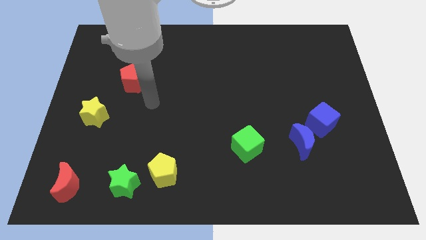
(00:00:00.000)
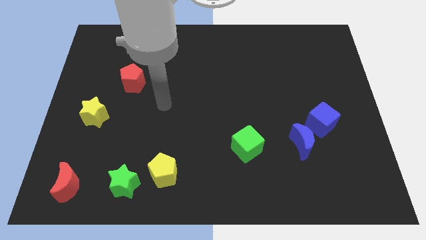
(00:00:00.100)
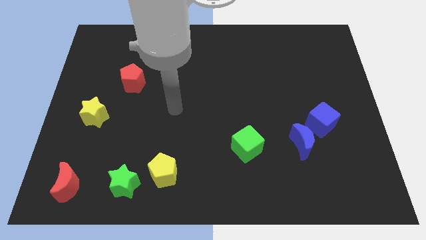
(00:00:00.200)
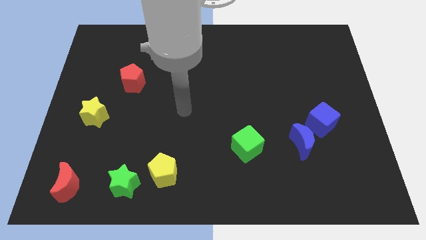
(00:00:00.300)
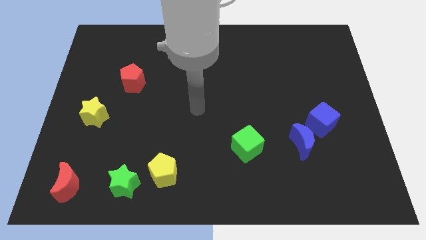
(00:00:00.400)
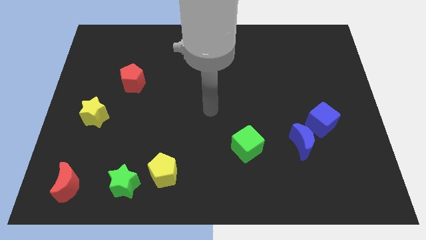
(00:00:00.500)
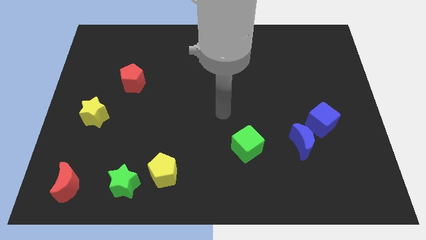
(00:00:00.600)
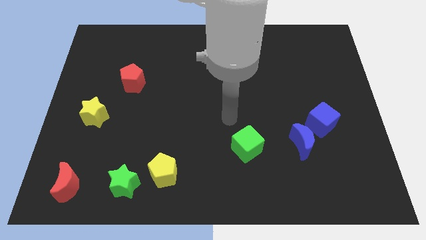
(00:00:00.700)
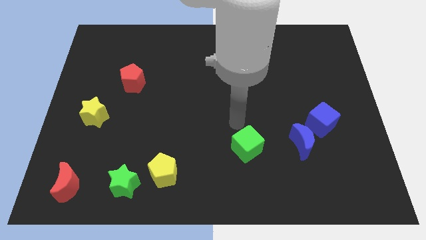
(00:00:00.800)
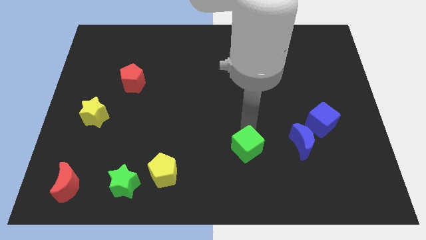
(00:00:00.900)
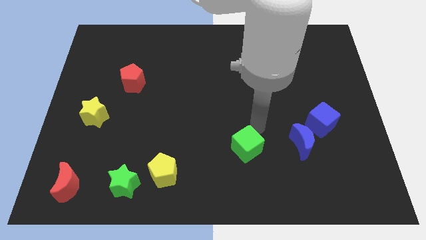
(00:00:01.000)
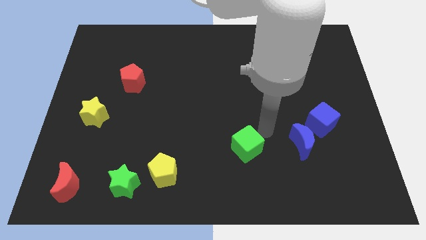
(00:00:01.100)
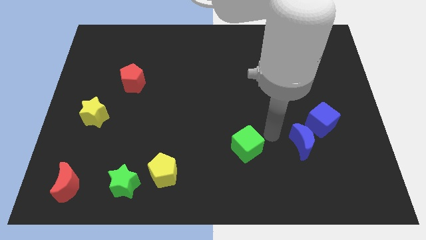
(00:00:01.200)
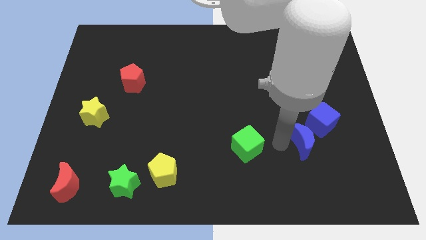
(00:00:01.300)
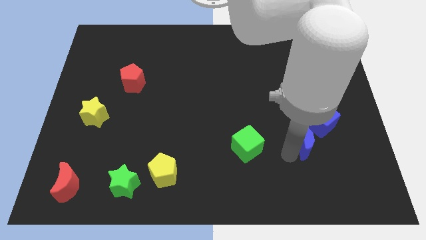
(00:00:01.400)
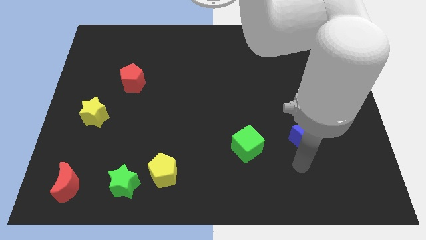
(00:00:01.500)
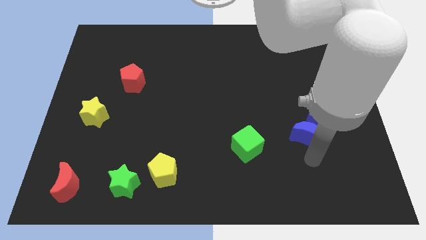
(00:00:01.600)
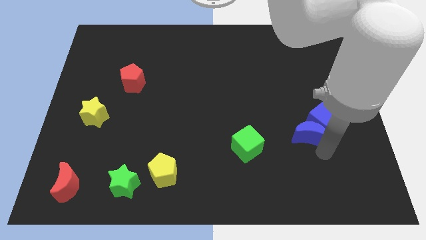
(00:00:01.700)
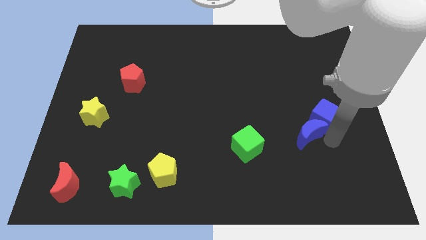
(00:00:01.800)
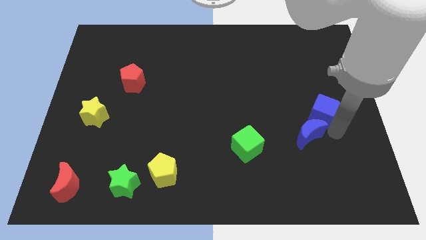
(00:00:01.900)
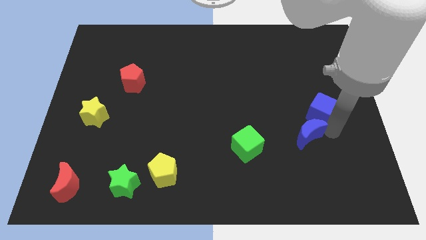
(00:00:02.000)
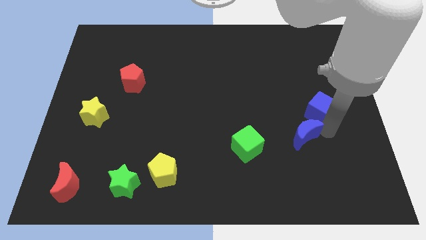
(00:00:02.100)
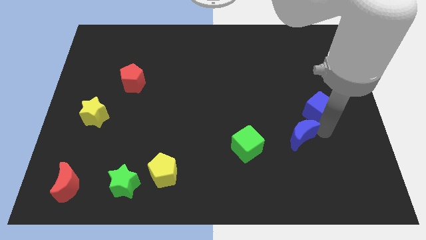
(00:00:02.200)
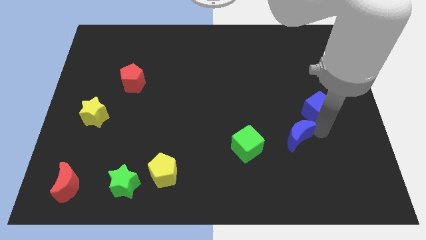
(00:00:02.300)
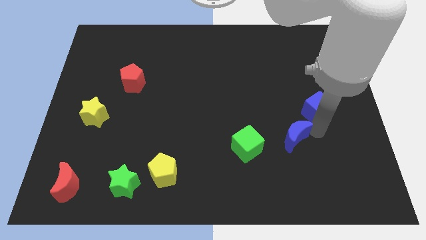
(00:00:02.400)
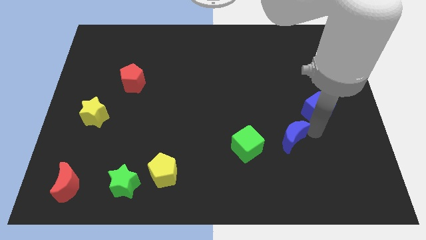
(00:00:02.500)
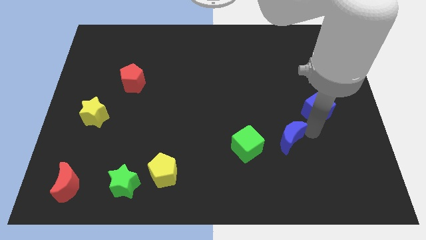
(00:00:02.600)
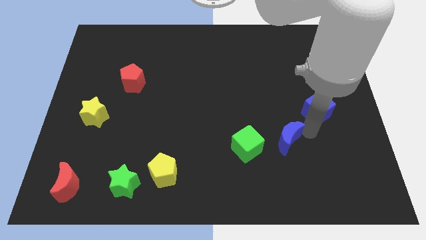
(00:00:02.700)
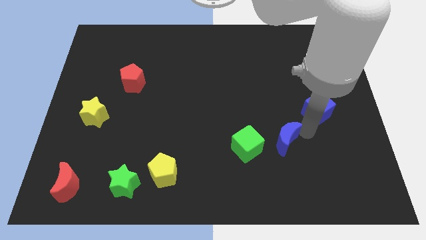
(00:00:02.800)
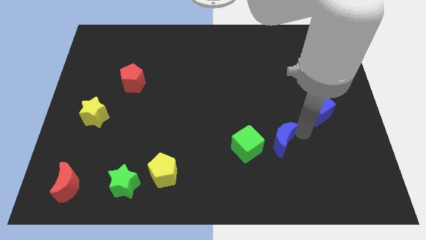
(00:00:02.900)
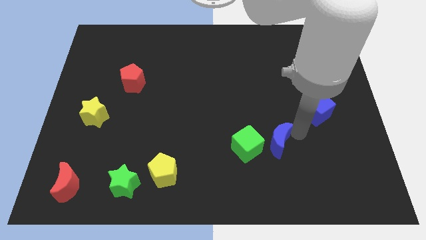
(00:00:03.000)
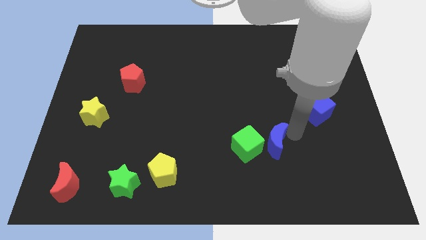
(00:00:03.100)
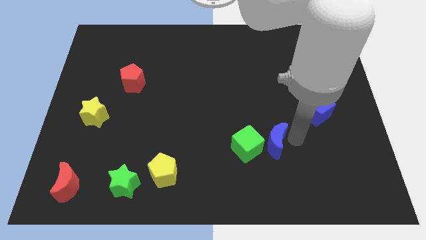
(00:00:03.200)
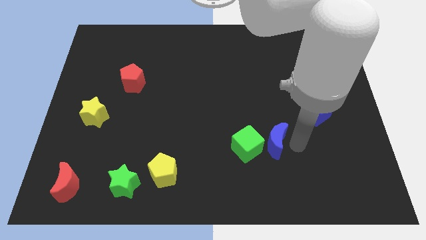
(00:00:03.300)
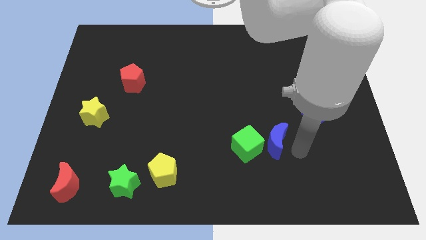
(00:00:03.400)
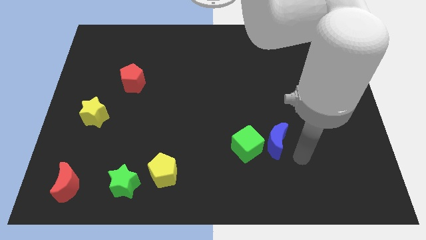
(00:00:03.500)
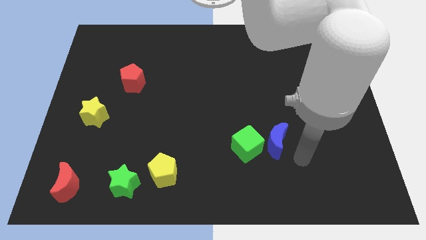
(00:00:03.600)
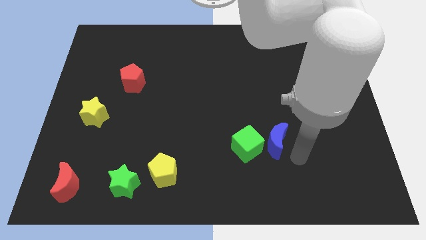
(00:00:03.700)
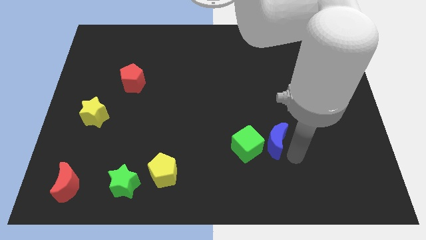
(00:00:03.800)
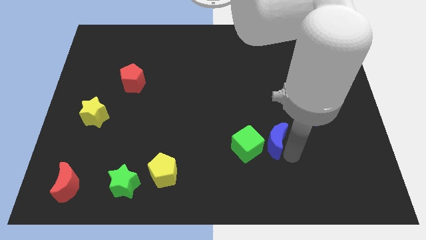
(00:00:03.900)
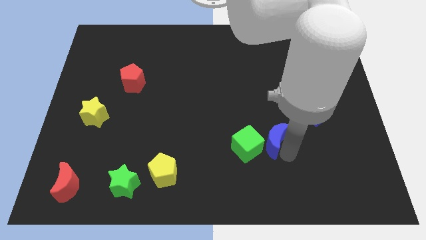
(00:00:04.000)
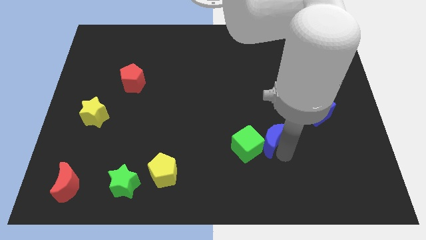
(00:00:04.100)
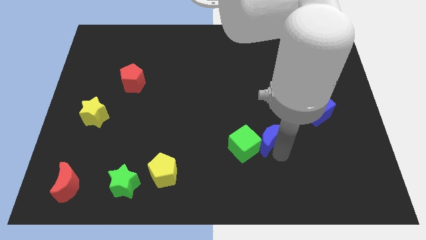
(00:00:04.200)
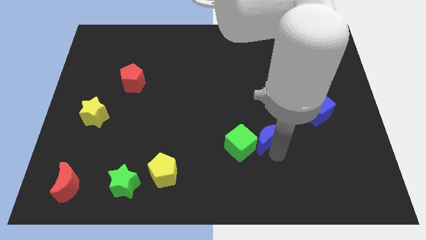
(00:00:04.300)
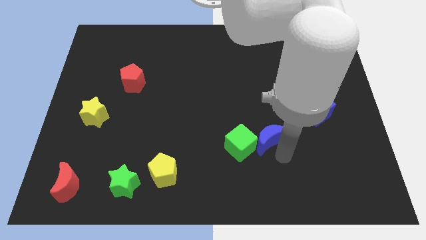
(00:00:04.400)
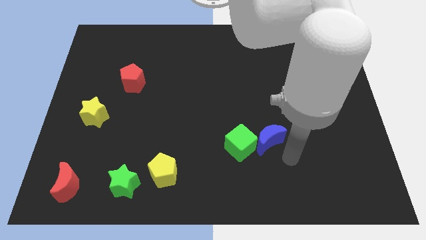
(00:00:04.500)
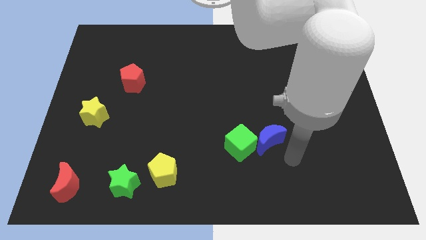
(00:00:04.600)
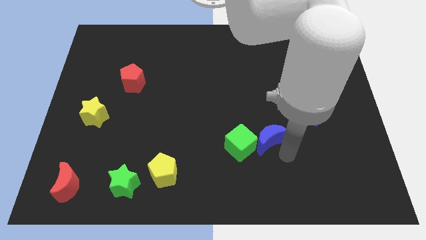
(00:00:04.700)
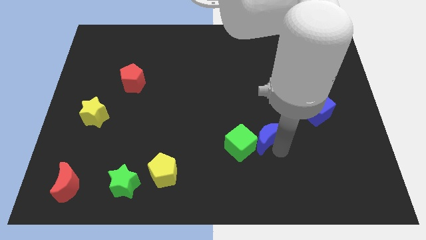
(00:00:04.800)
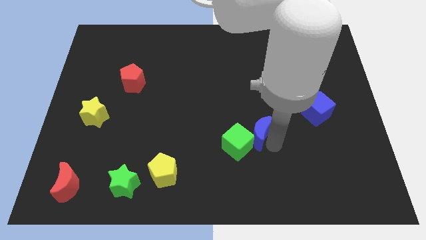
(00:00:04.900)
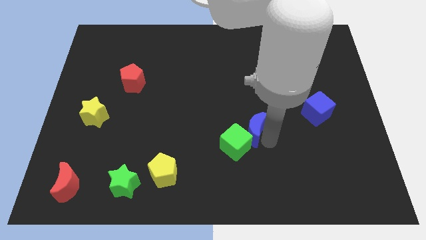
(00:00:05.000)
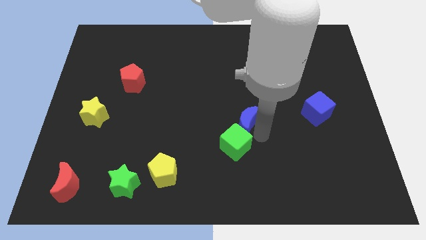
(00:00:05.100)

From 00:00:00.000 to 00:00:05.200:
move the blue moon to the middle

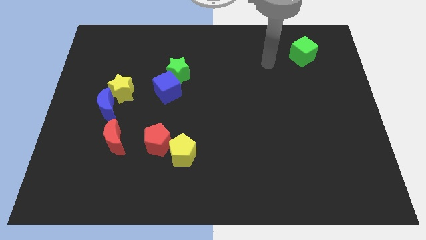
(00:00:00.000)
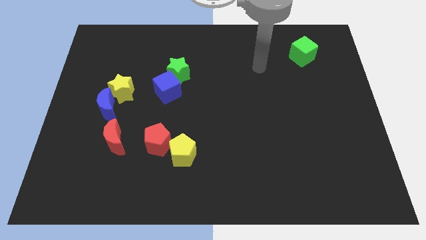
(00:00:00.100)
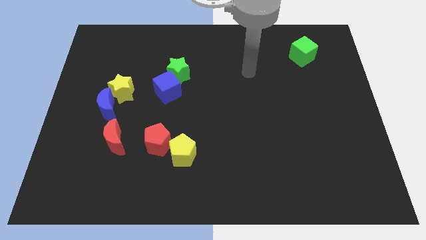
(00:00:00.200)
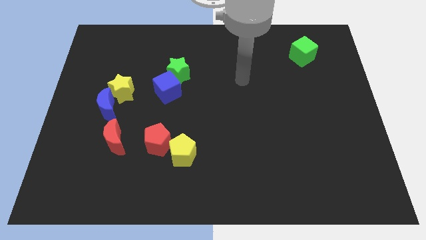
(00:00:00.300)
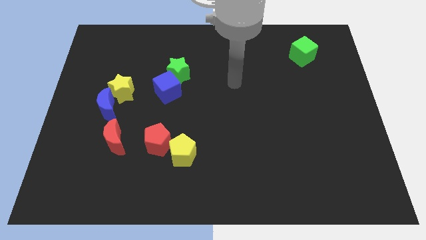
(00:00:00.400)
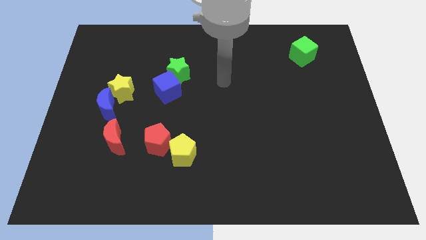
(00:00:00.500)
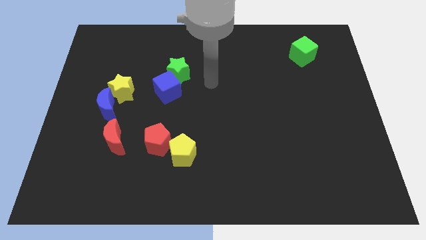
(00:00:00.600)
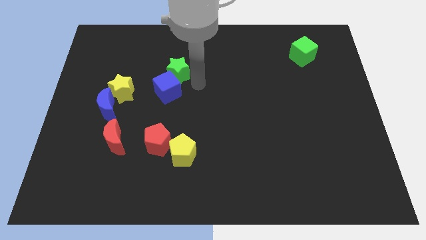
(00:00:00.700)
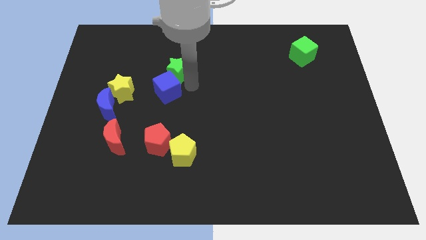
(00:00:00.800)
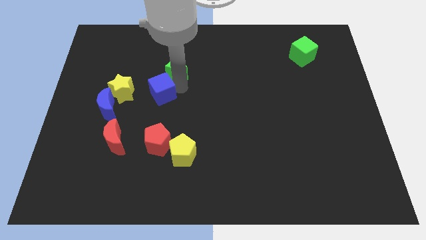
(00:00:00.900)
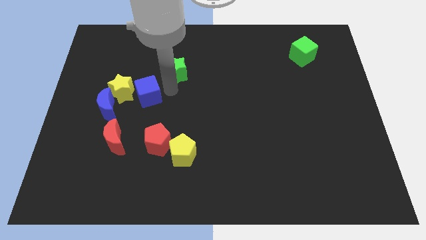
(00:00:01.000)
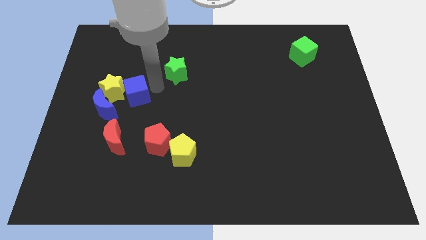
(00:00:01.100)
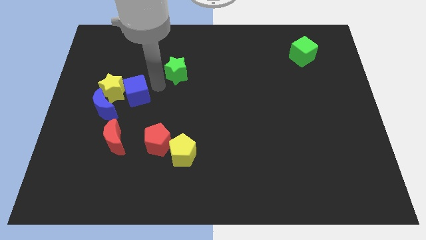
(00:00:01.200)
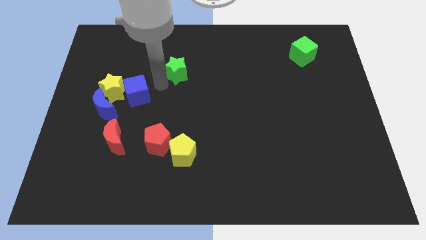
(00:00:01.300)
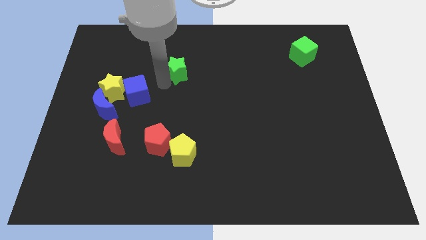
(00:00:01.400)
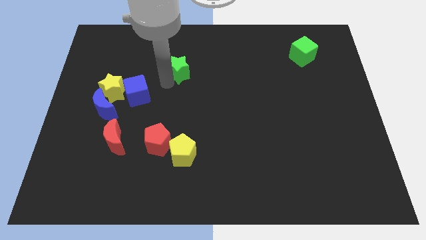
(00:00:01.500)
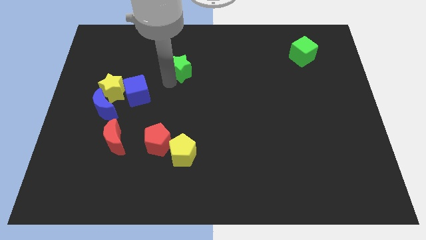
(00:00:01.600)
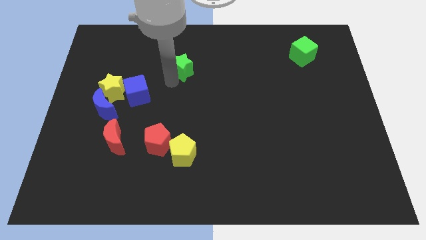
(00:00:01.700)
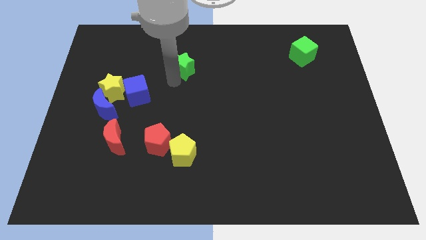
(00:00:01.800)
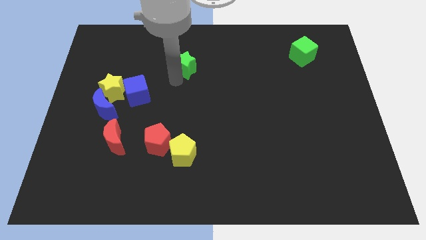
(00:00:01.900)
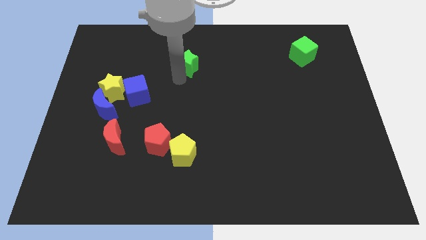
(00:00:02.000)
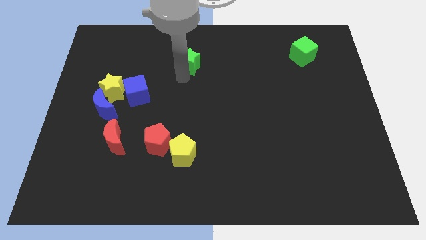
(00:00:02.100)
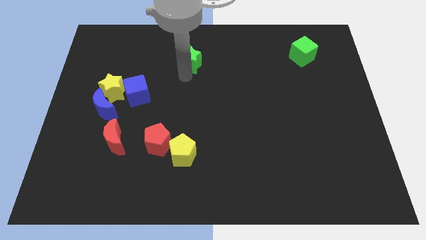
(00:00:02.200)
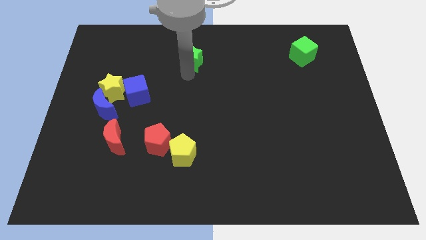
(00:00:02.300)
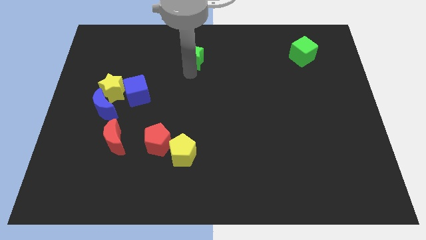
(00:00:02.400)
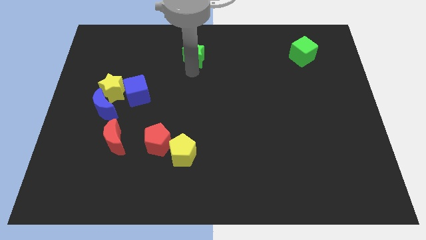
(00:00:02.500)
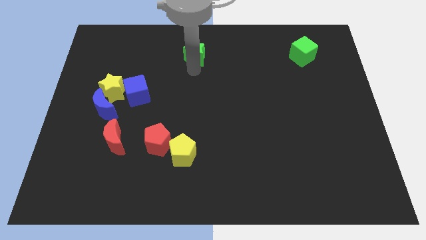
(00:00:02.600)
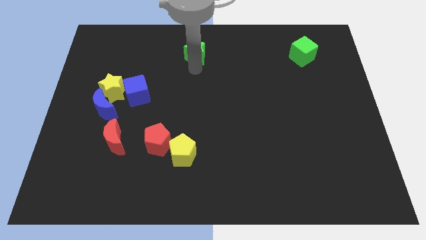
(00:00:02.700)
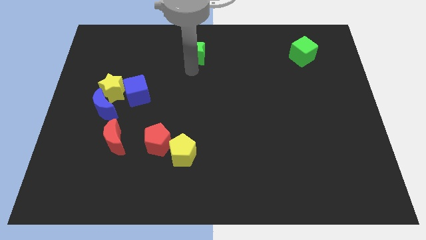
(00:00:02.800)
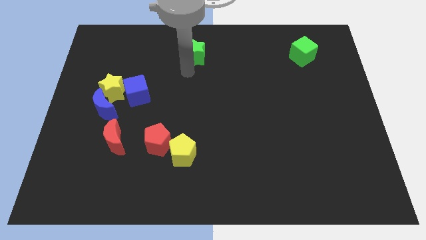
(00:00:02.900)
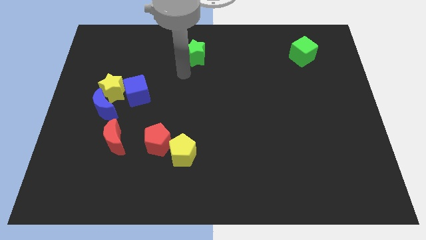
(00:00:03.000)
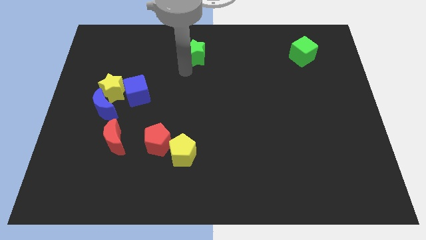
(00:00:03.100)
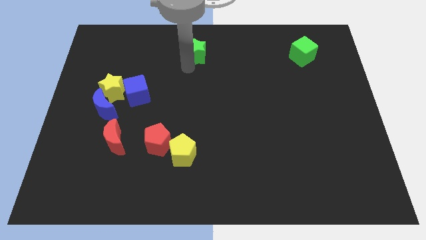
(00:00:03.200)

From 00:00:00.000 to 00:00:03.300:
push the green star to the top side
